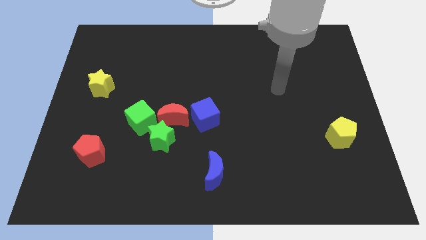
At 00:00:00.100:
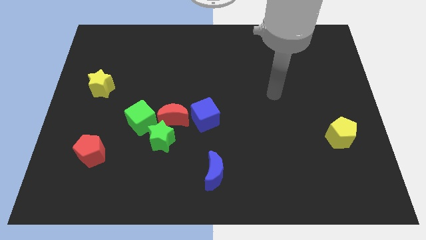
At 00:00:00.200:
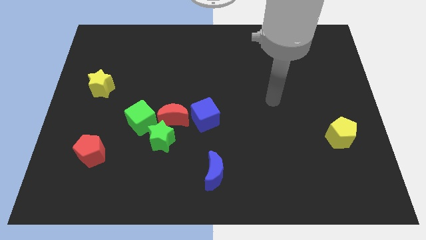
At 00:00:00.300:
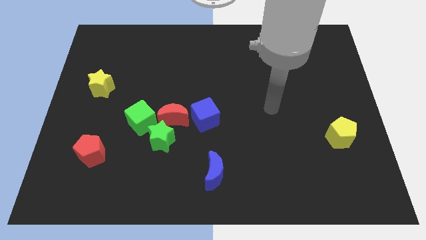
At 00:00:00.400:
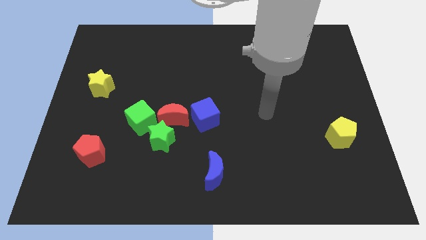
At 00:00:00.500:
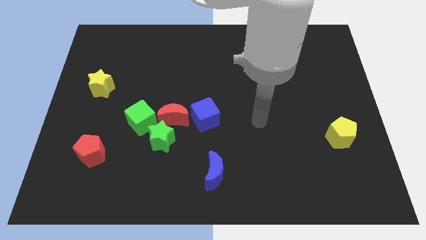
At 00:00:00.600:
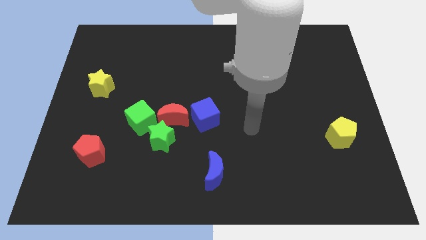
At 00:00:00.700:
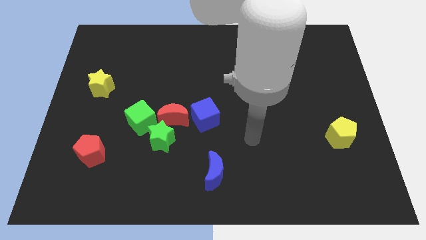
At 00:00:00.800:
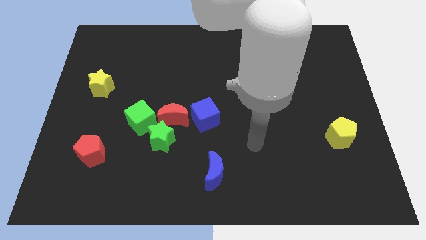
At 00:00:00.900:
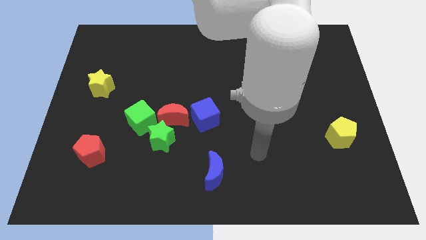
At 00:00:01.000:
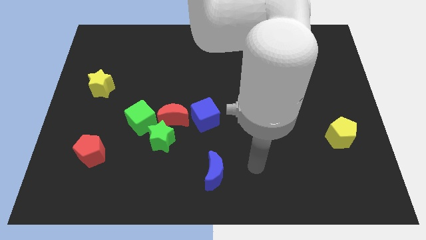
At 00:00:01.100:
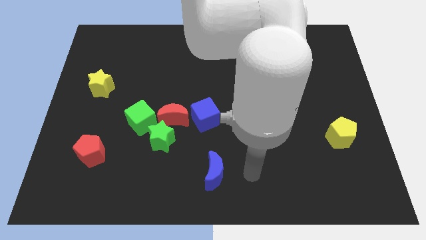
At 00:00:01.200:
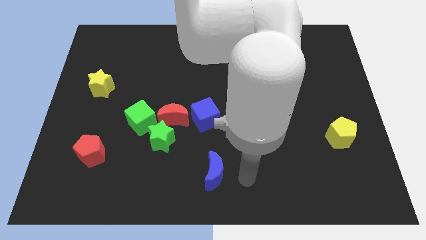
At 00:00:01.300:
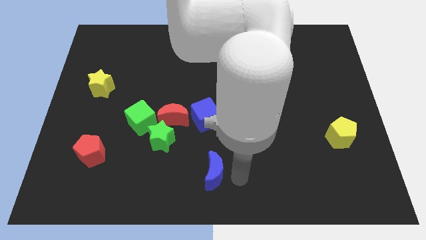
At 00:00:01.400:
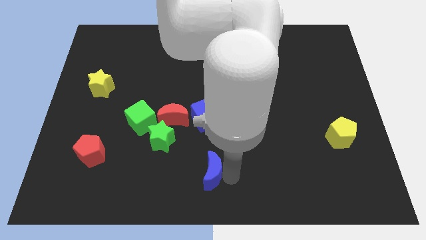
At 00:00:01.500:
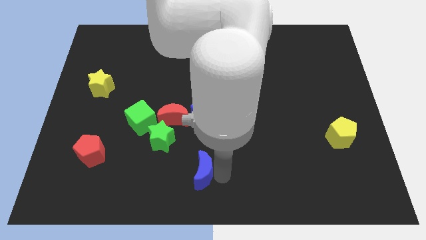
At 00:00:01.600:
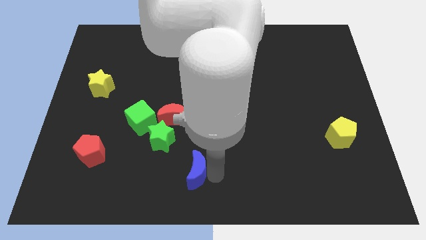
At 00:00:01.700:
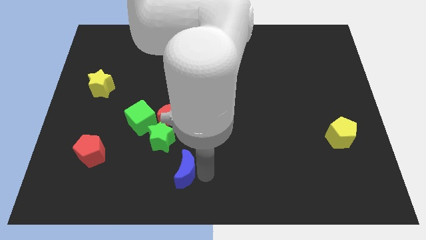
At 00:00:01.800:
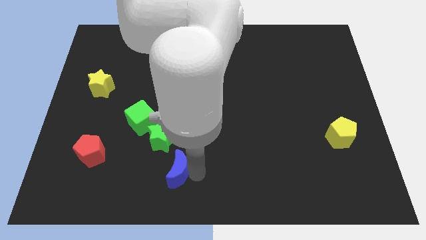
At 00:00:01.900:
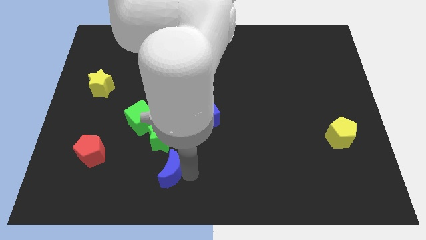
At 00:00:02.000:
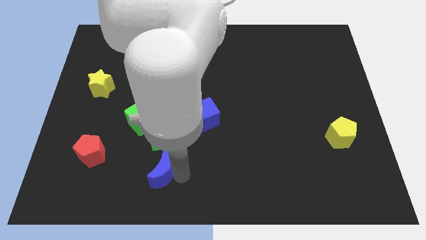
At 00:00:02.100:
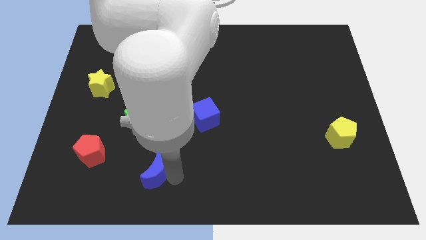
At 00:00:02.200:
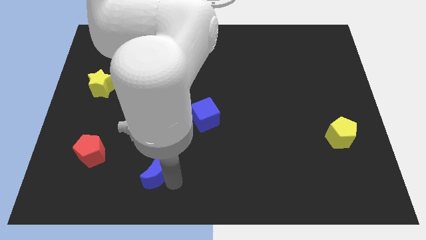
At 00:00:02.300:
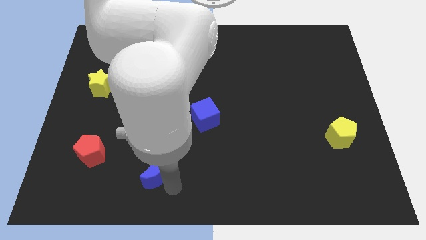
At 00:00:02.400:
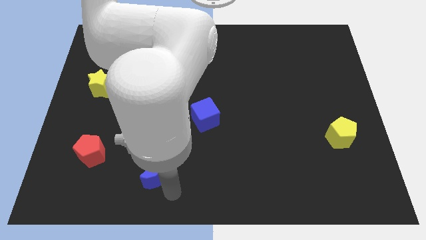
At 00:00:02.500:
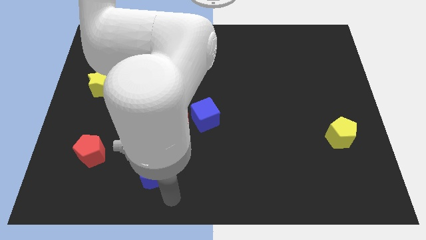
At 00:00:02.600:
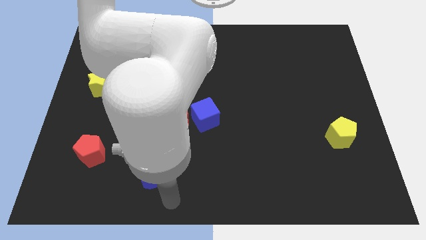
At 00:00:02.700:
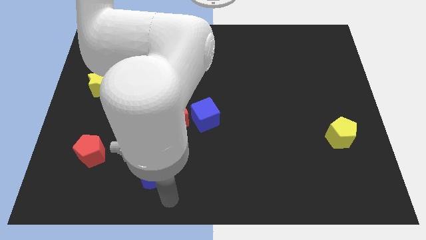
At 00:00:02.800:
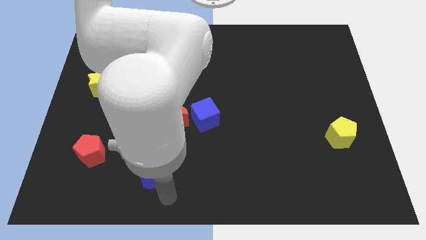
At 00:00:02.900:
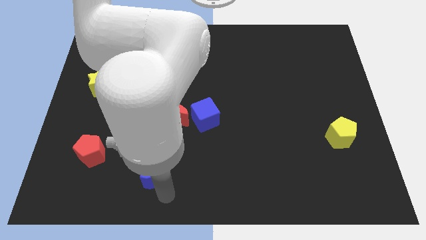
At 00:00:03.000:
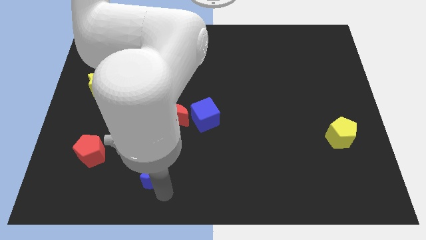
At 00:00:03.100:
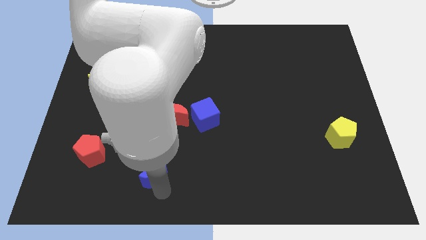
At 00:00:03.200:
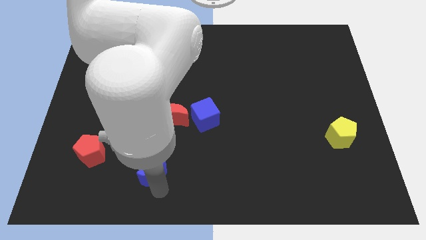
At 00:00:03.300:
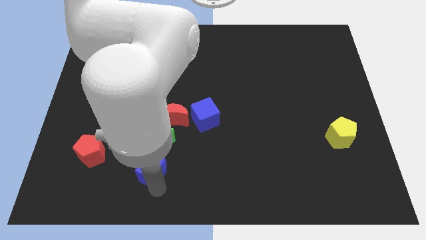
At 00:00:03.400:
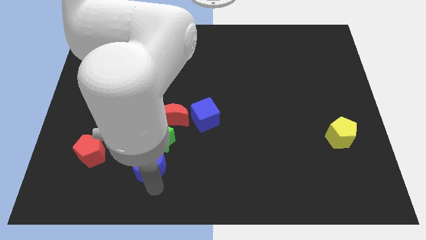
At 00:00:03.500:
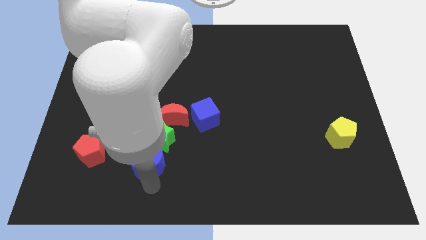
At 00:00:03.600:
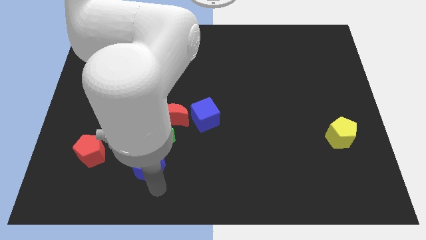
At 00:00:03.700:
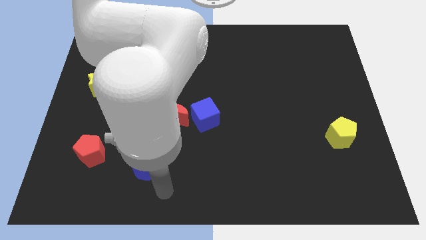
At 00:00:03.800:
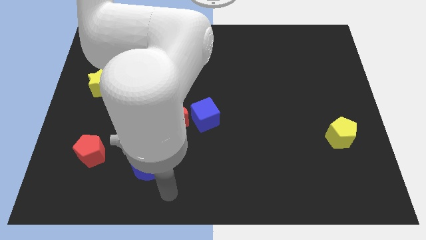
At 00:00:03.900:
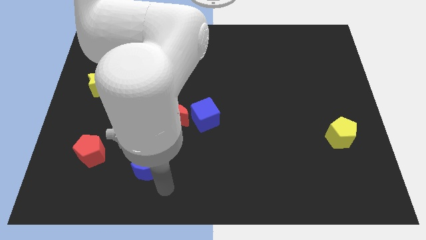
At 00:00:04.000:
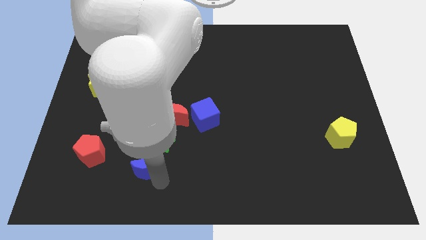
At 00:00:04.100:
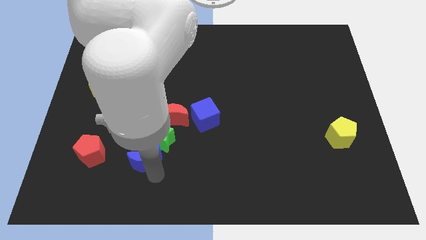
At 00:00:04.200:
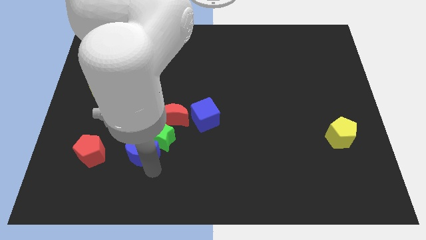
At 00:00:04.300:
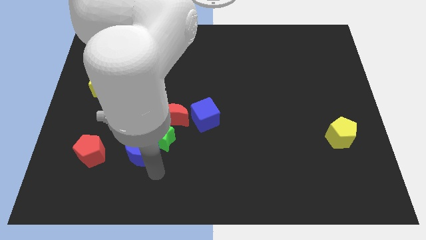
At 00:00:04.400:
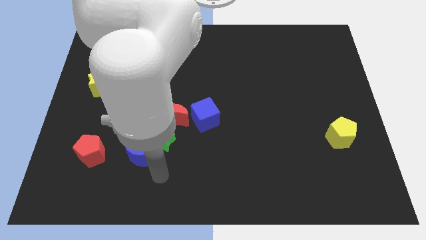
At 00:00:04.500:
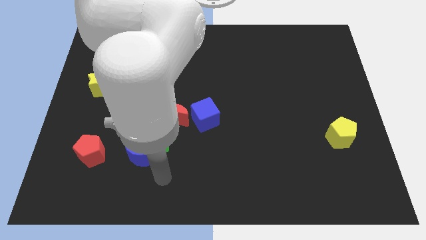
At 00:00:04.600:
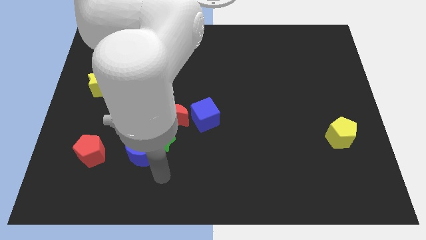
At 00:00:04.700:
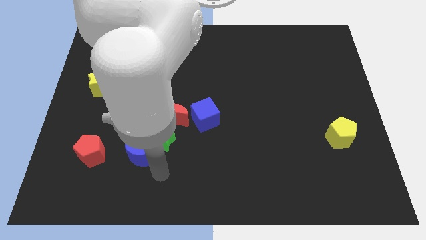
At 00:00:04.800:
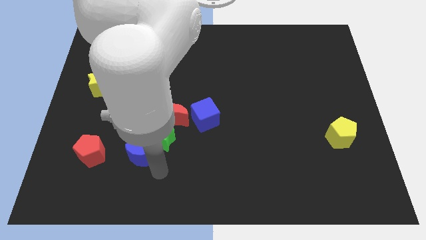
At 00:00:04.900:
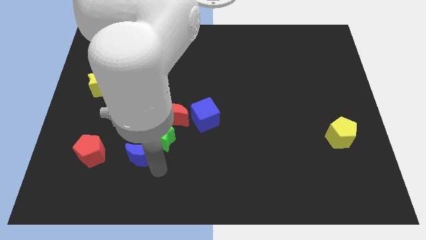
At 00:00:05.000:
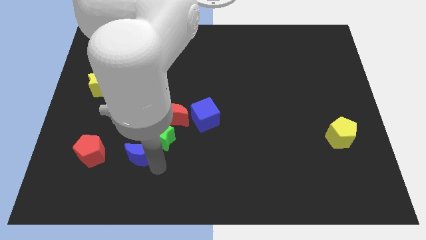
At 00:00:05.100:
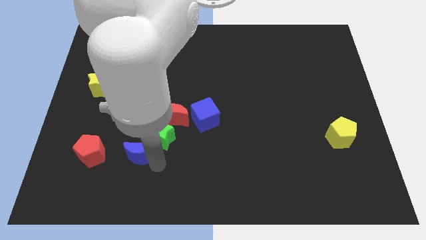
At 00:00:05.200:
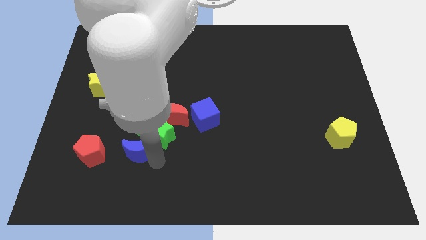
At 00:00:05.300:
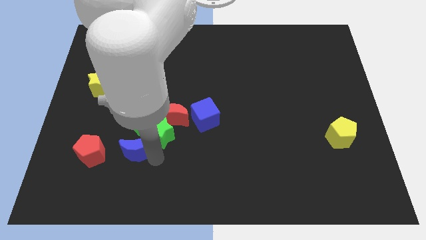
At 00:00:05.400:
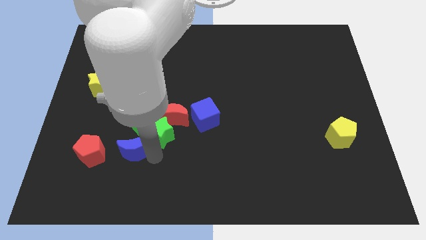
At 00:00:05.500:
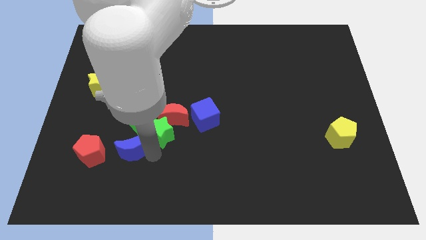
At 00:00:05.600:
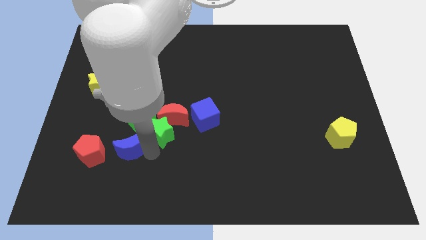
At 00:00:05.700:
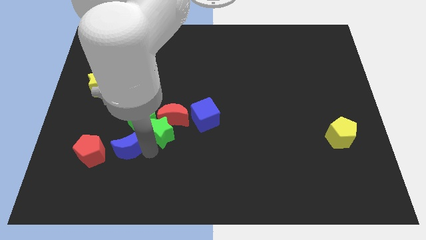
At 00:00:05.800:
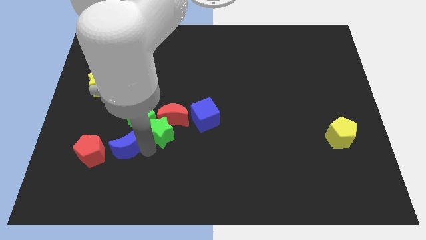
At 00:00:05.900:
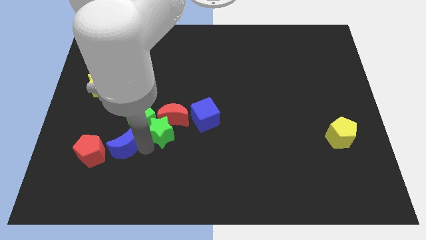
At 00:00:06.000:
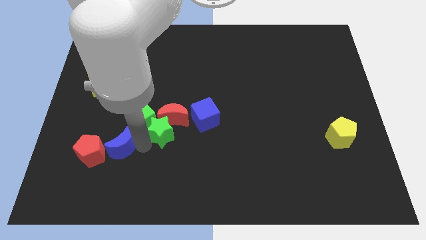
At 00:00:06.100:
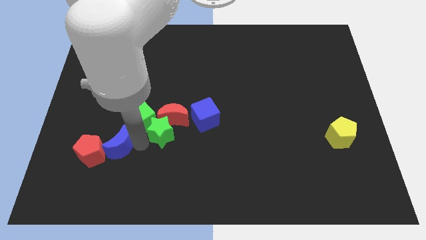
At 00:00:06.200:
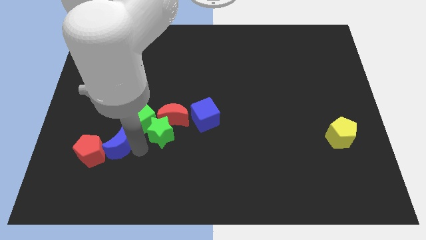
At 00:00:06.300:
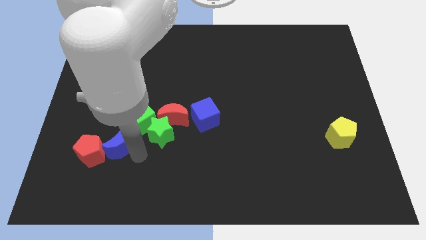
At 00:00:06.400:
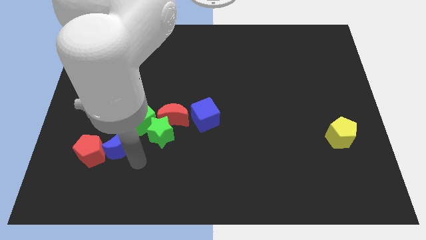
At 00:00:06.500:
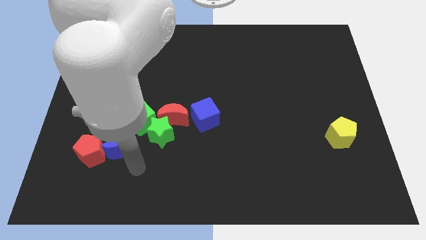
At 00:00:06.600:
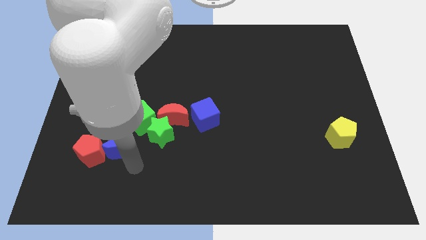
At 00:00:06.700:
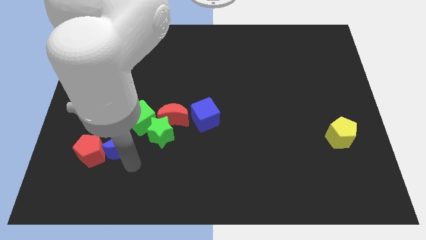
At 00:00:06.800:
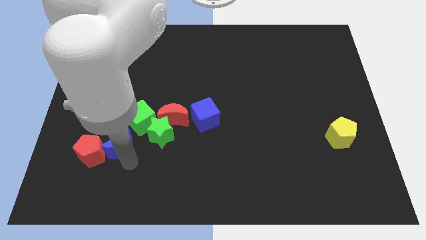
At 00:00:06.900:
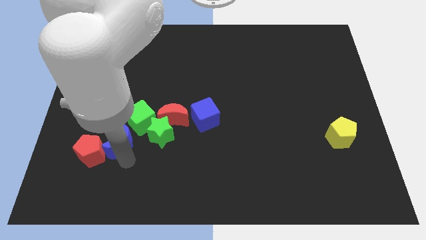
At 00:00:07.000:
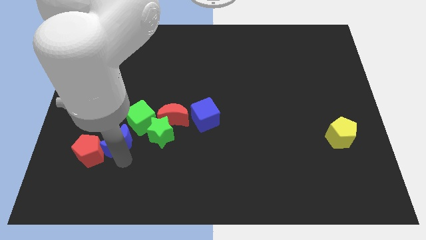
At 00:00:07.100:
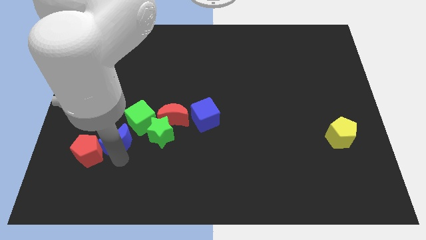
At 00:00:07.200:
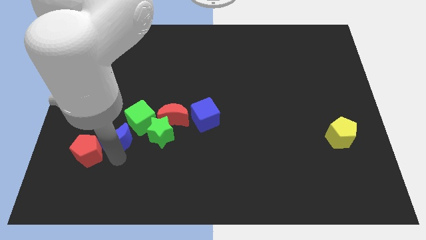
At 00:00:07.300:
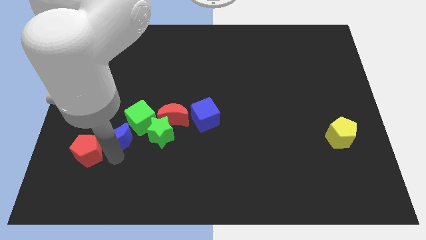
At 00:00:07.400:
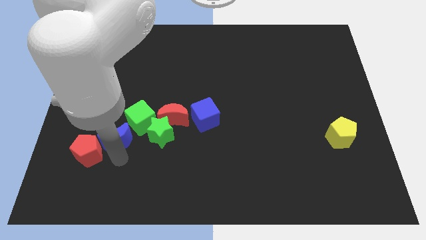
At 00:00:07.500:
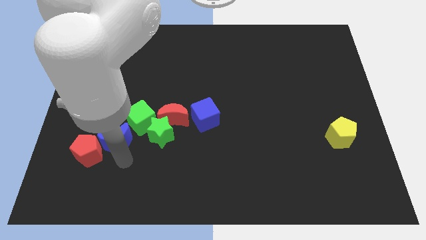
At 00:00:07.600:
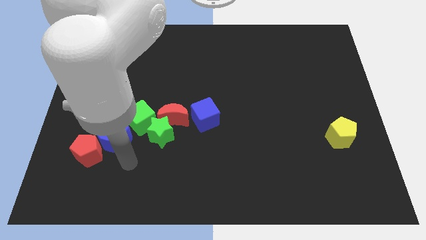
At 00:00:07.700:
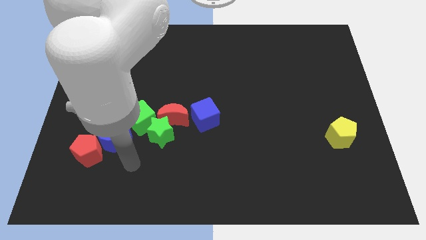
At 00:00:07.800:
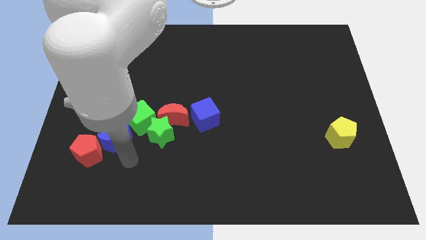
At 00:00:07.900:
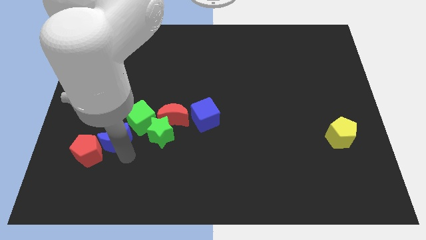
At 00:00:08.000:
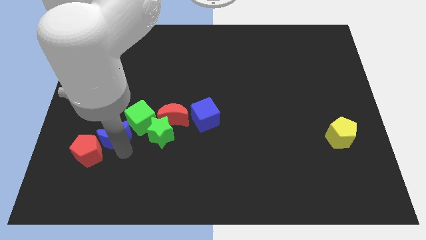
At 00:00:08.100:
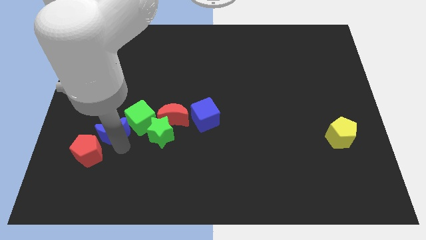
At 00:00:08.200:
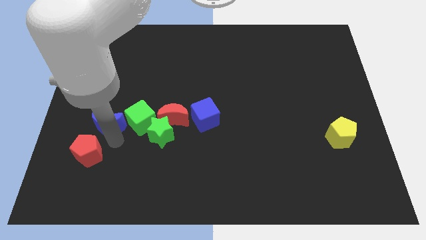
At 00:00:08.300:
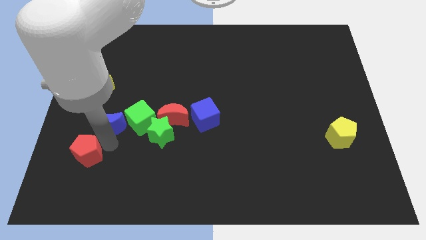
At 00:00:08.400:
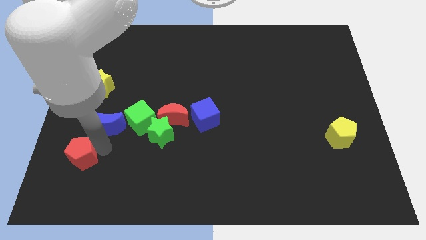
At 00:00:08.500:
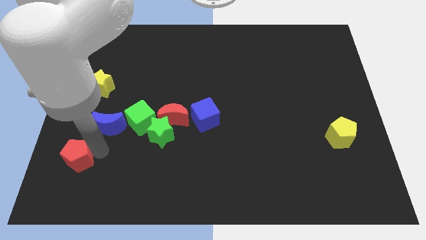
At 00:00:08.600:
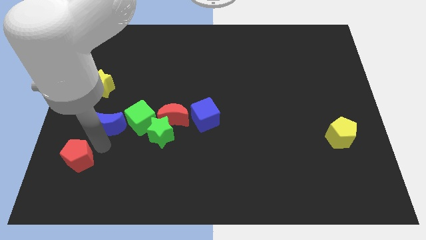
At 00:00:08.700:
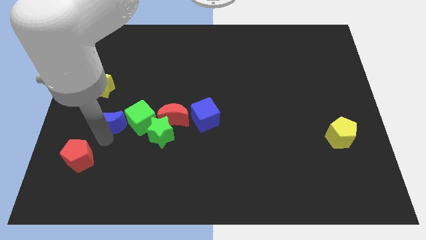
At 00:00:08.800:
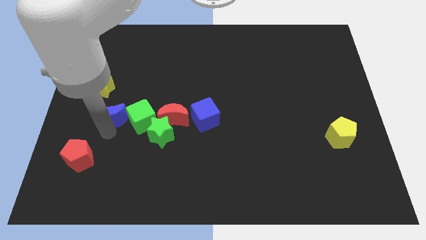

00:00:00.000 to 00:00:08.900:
push the blue moon diagonally down and to the right of the yellow star
